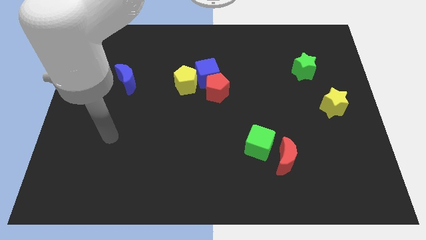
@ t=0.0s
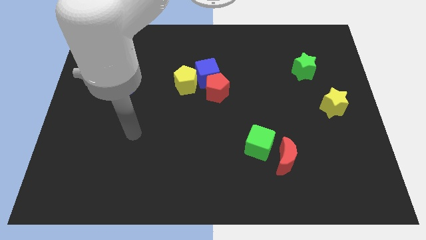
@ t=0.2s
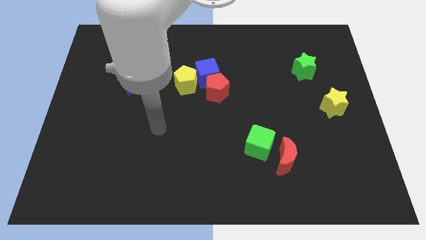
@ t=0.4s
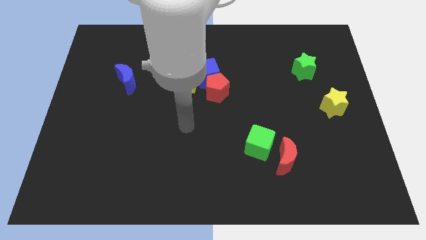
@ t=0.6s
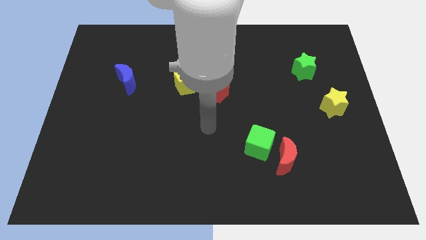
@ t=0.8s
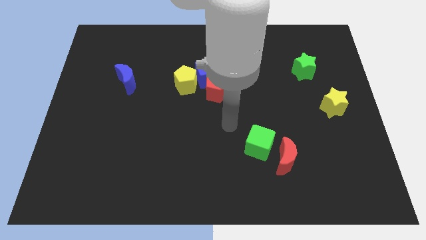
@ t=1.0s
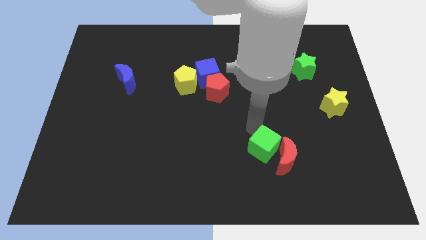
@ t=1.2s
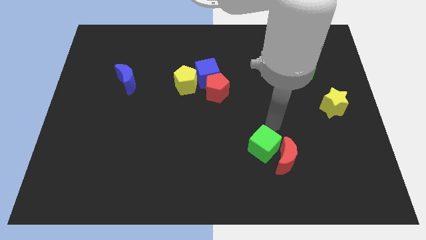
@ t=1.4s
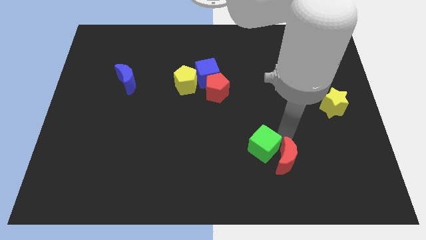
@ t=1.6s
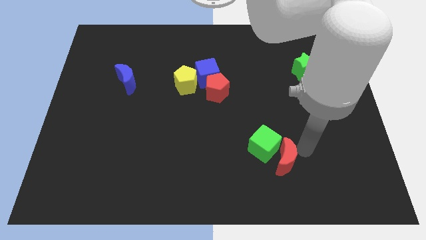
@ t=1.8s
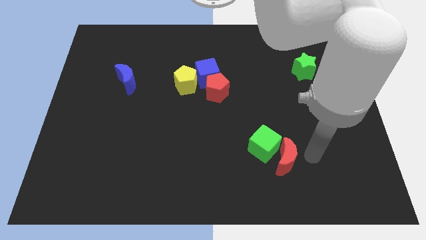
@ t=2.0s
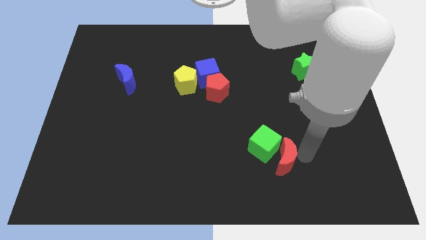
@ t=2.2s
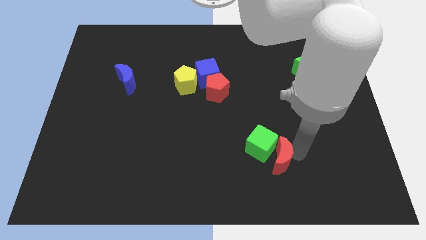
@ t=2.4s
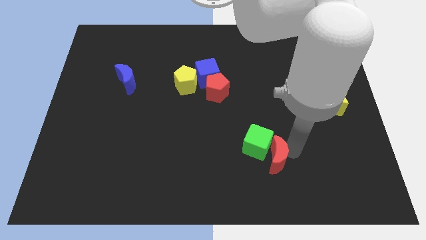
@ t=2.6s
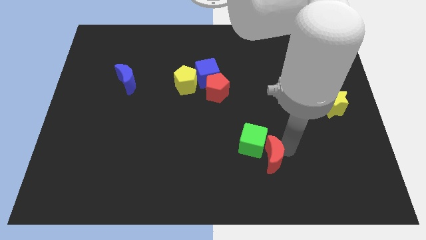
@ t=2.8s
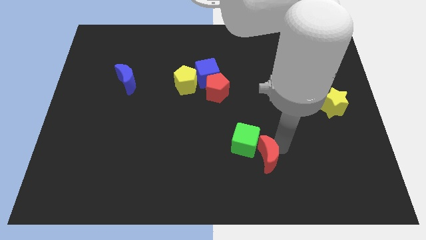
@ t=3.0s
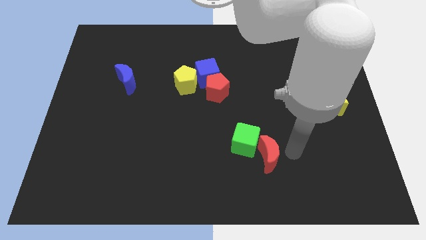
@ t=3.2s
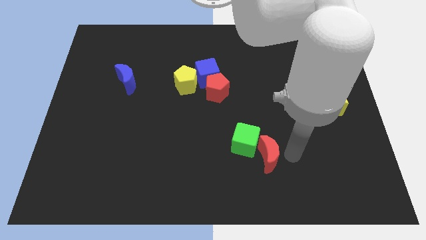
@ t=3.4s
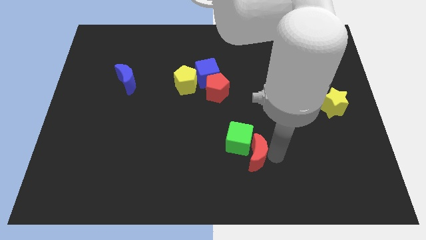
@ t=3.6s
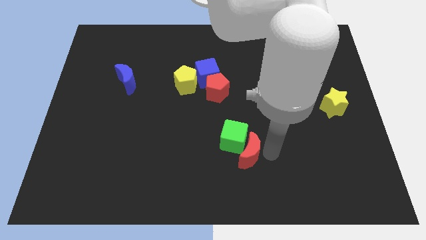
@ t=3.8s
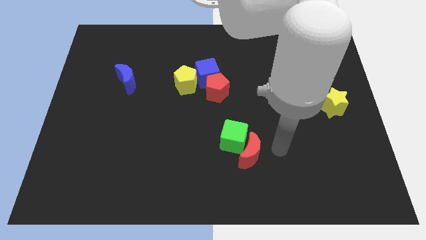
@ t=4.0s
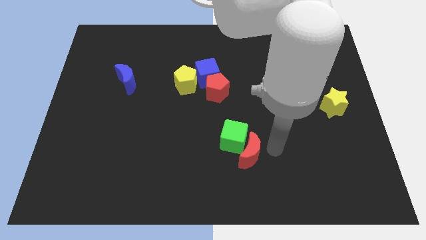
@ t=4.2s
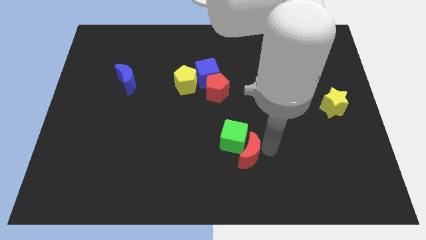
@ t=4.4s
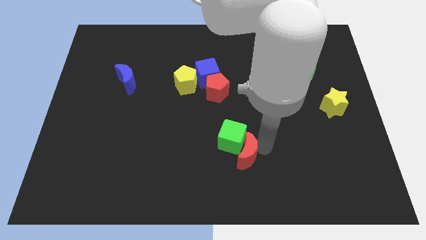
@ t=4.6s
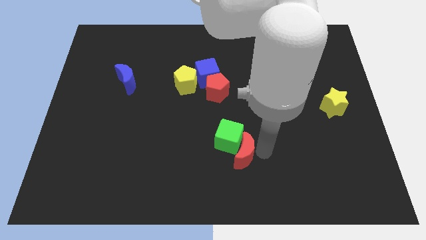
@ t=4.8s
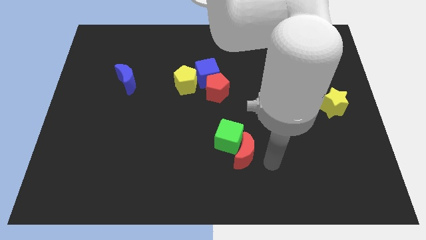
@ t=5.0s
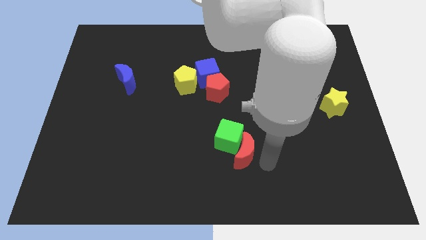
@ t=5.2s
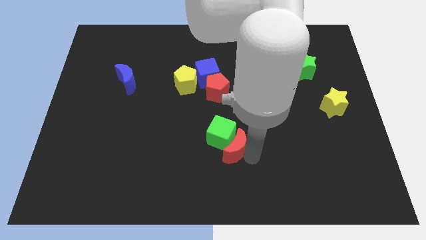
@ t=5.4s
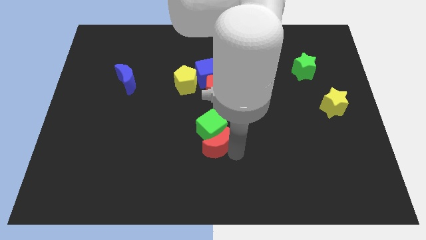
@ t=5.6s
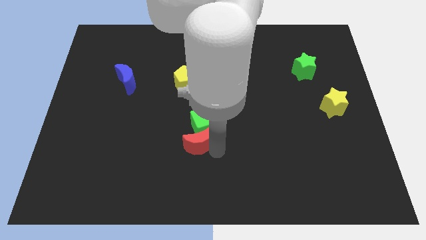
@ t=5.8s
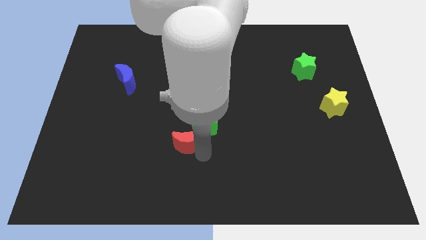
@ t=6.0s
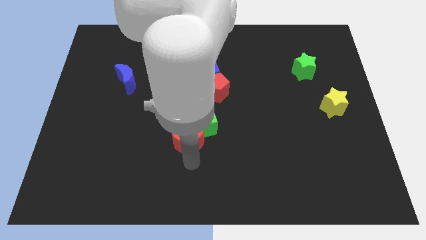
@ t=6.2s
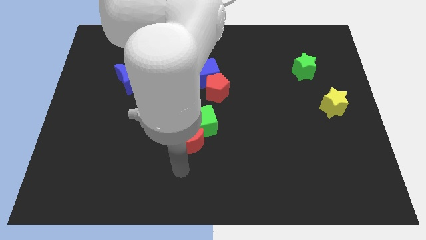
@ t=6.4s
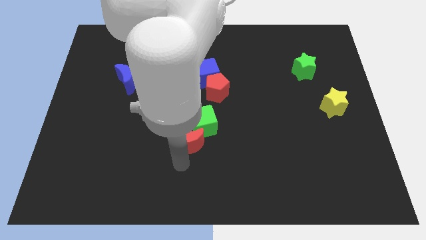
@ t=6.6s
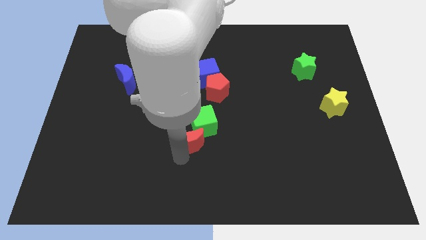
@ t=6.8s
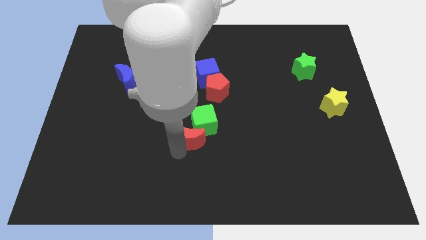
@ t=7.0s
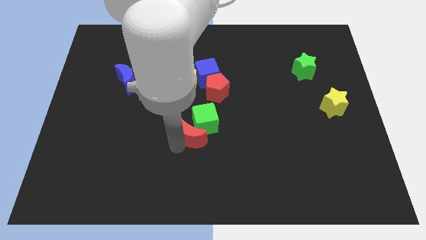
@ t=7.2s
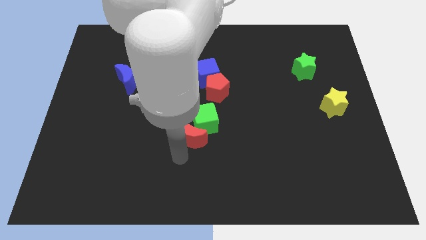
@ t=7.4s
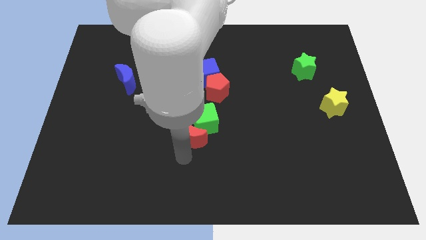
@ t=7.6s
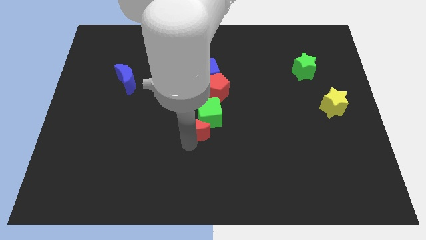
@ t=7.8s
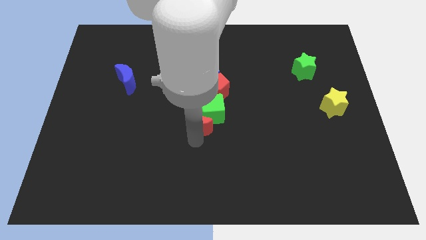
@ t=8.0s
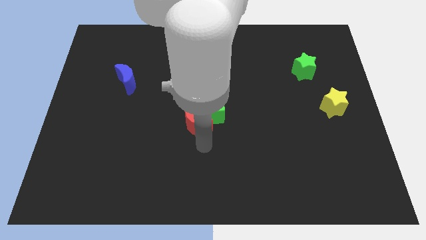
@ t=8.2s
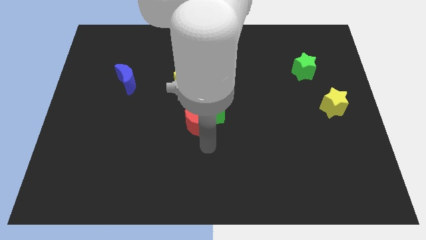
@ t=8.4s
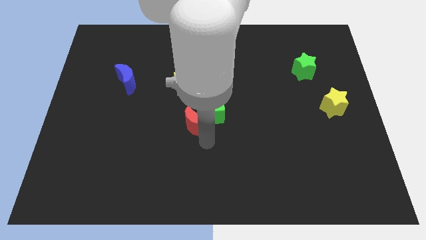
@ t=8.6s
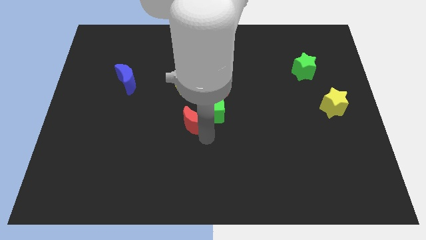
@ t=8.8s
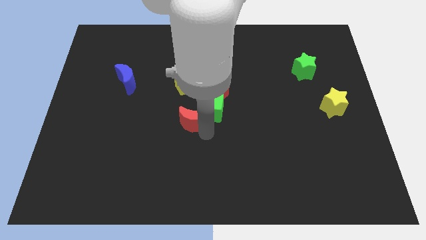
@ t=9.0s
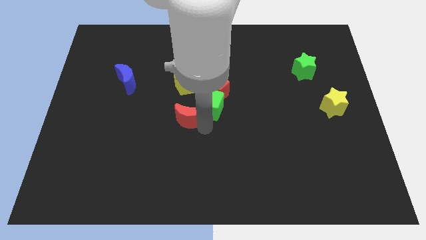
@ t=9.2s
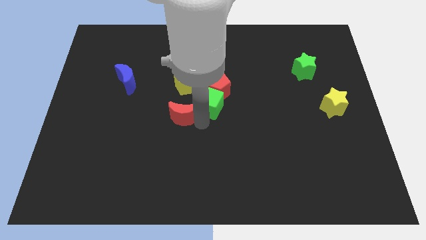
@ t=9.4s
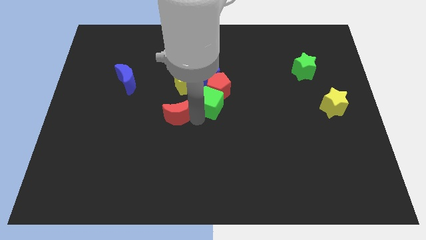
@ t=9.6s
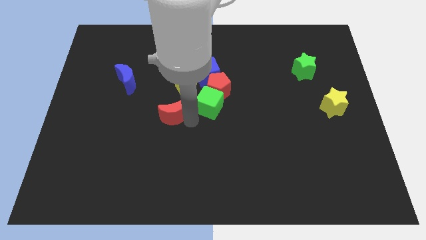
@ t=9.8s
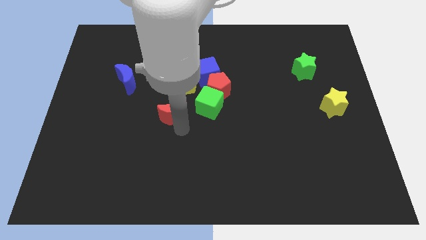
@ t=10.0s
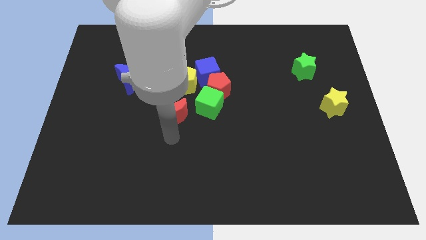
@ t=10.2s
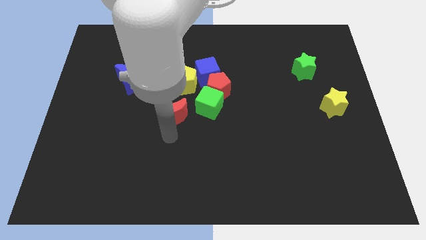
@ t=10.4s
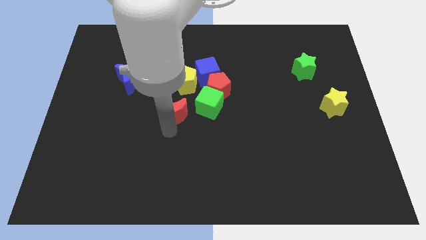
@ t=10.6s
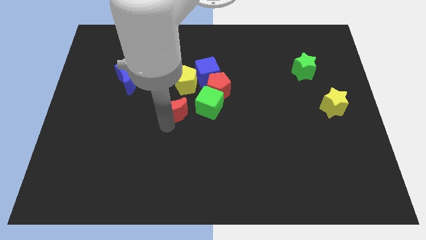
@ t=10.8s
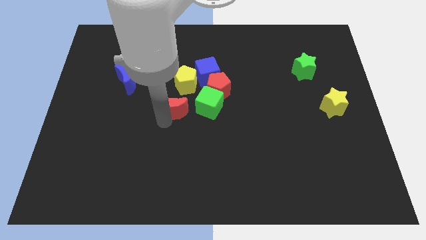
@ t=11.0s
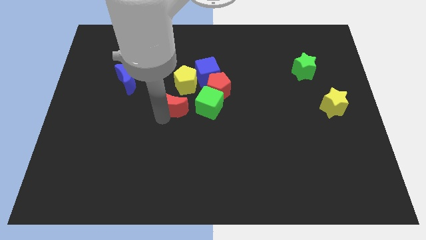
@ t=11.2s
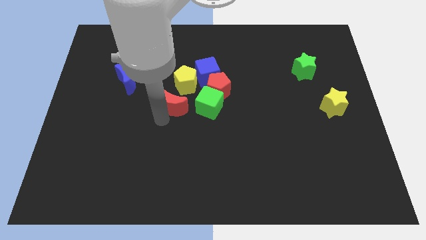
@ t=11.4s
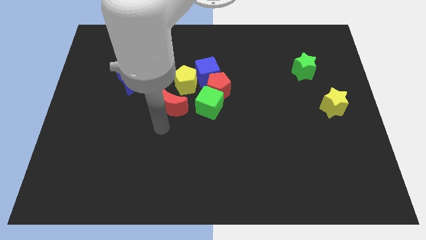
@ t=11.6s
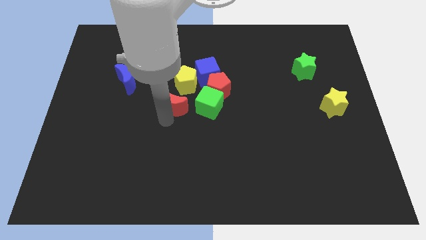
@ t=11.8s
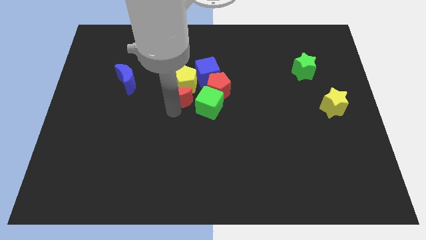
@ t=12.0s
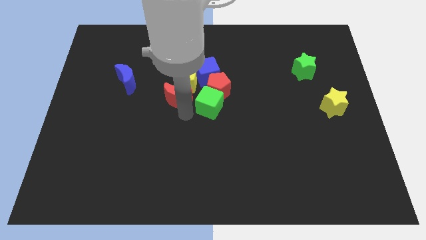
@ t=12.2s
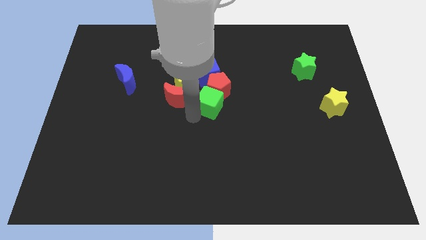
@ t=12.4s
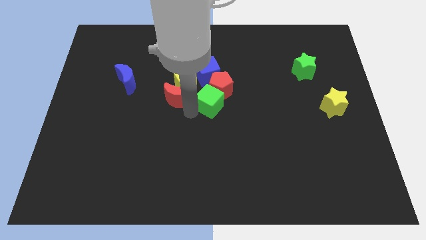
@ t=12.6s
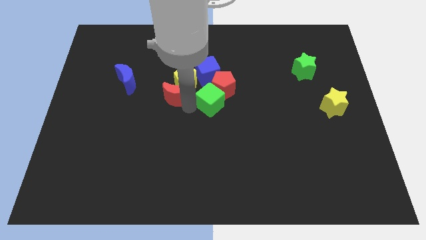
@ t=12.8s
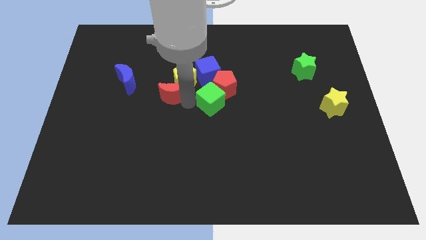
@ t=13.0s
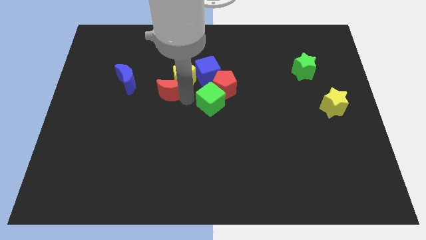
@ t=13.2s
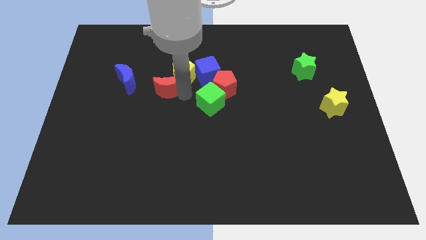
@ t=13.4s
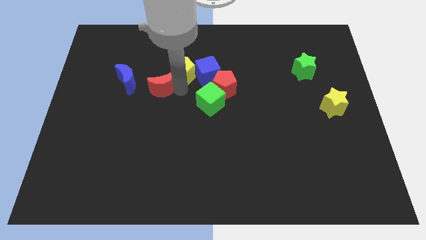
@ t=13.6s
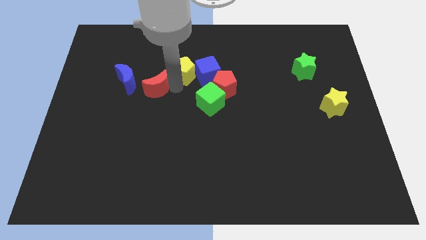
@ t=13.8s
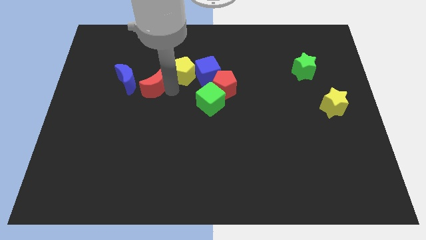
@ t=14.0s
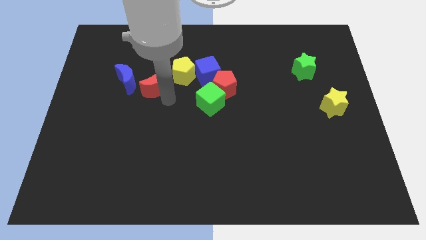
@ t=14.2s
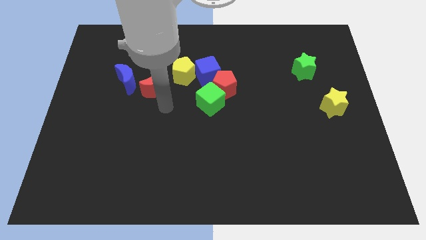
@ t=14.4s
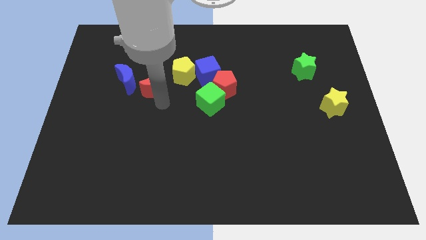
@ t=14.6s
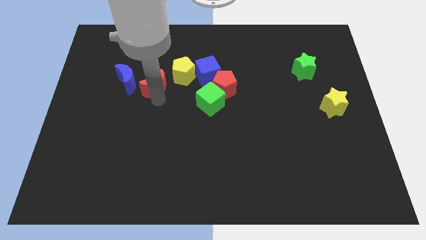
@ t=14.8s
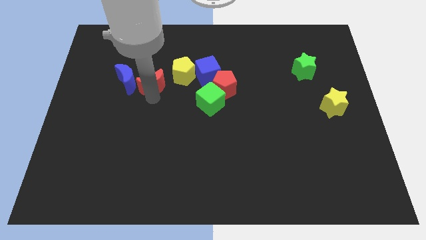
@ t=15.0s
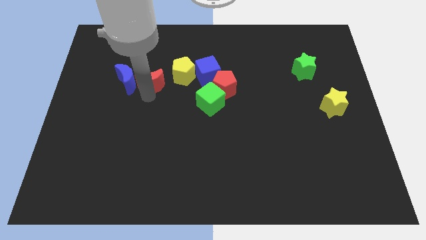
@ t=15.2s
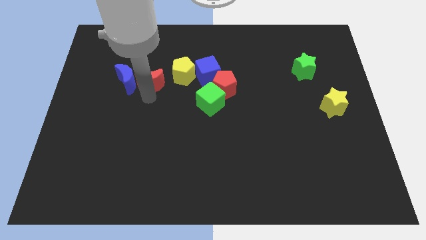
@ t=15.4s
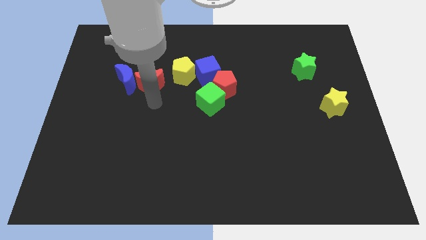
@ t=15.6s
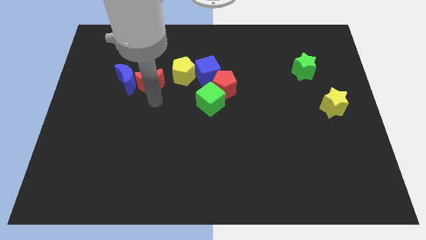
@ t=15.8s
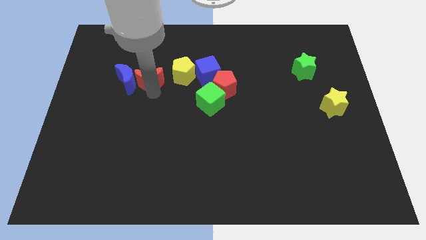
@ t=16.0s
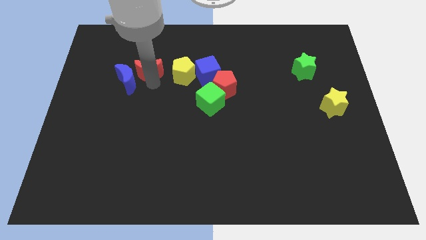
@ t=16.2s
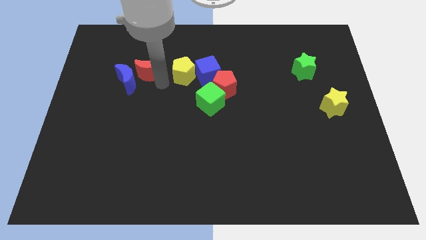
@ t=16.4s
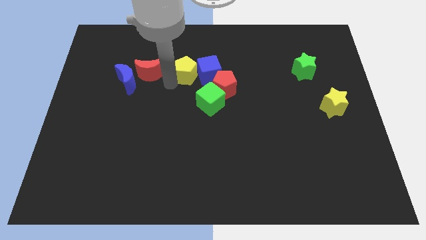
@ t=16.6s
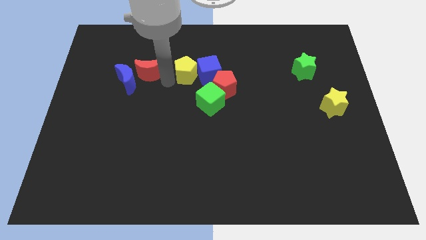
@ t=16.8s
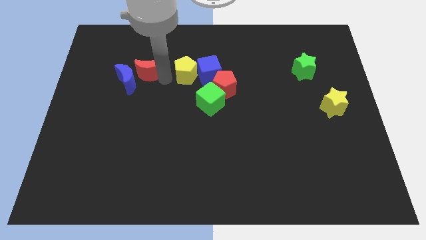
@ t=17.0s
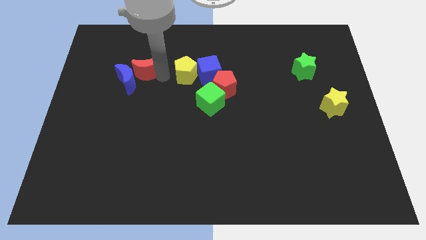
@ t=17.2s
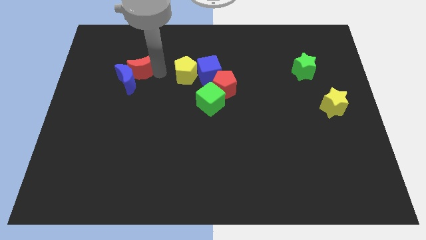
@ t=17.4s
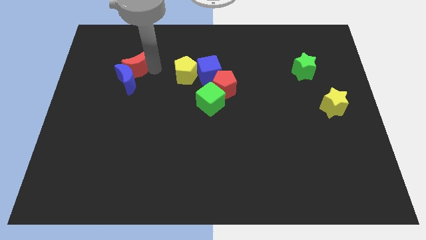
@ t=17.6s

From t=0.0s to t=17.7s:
put the red moon to the top left side of the blue moon
